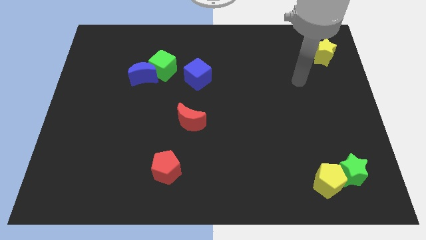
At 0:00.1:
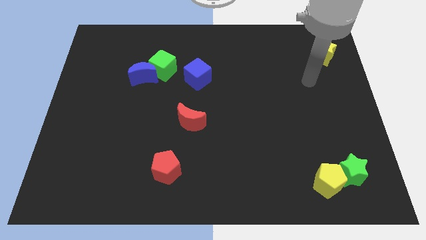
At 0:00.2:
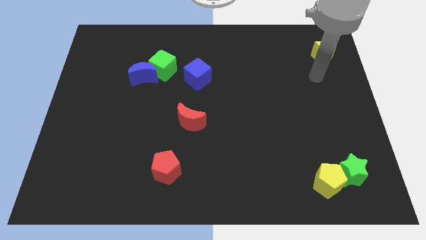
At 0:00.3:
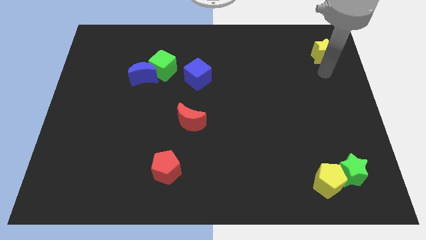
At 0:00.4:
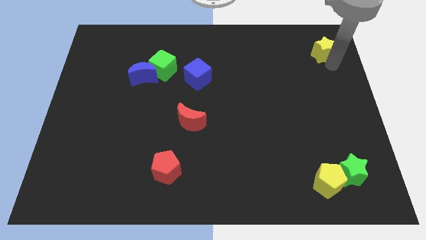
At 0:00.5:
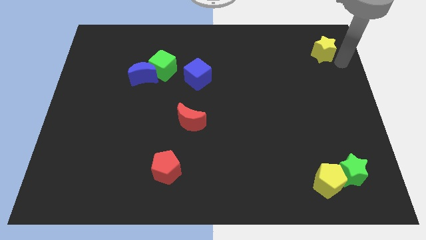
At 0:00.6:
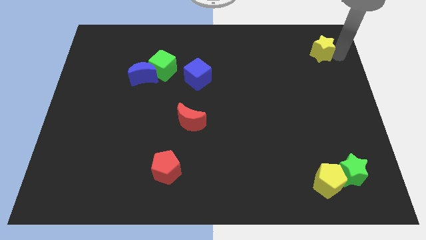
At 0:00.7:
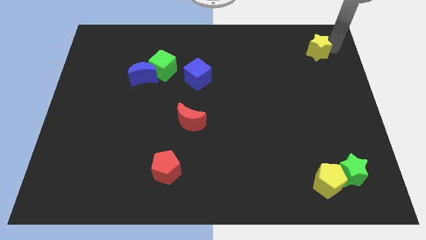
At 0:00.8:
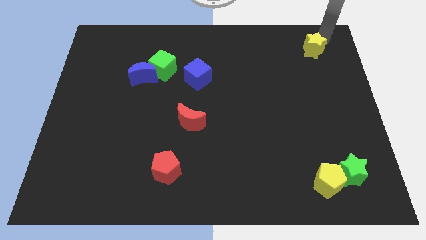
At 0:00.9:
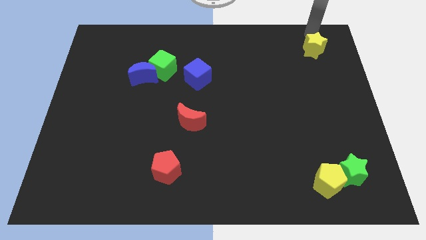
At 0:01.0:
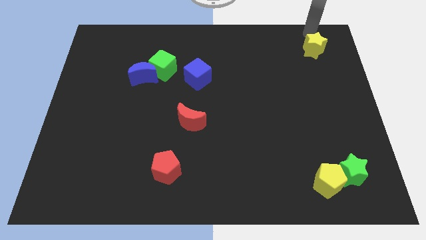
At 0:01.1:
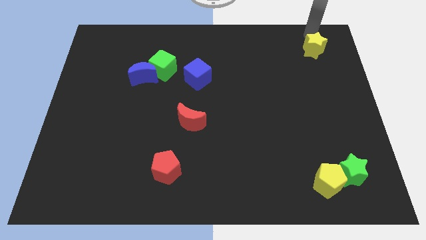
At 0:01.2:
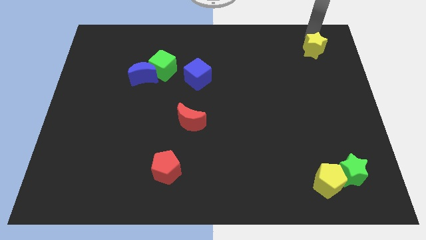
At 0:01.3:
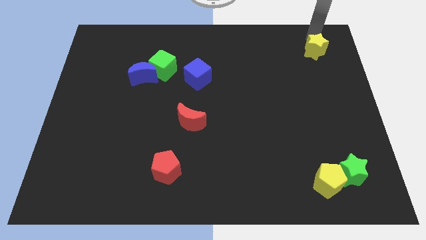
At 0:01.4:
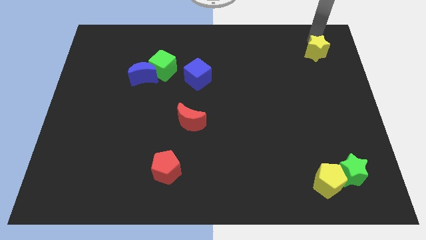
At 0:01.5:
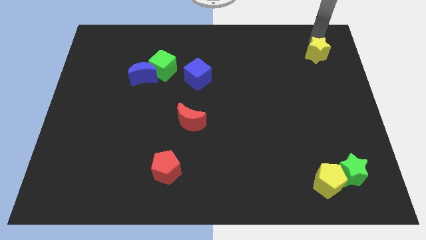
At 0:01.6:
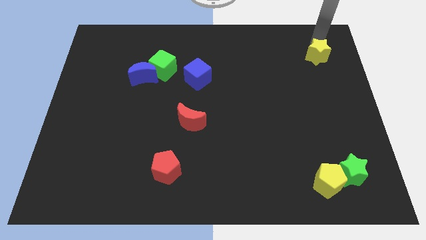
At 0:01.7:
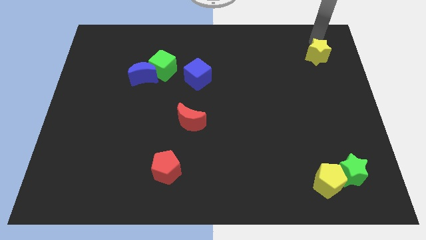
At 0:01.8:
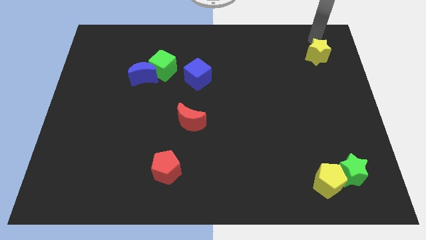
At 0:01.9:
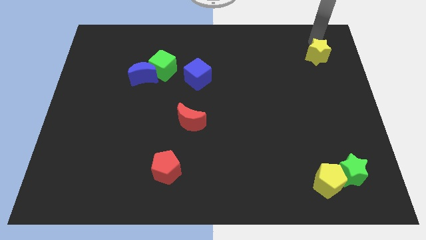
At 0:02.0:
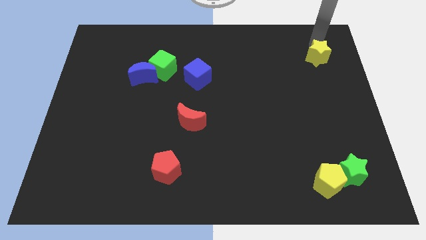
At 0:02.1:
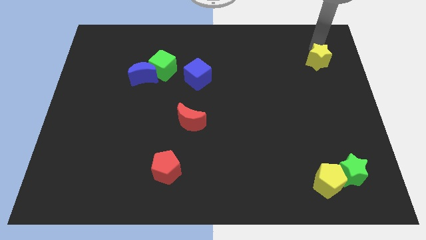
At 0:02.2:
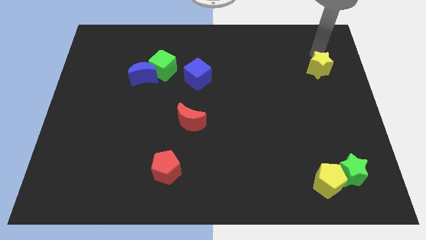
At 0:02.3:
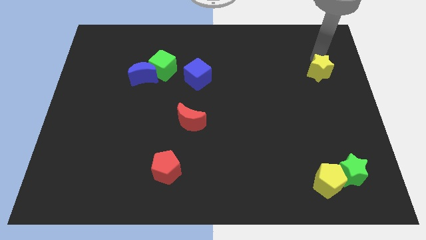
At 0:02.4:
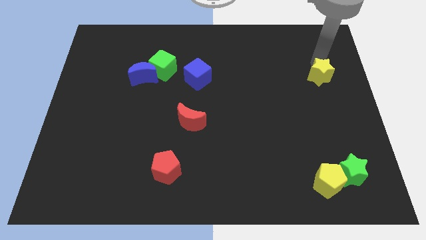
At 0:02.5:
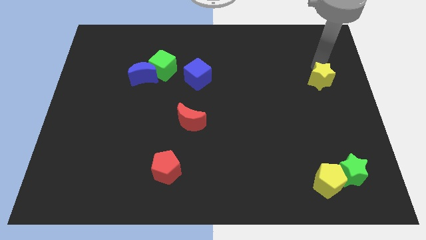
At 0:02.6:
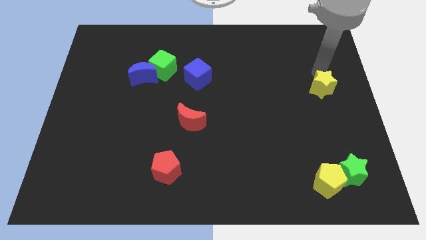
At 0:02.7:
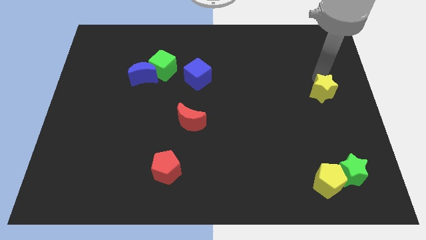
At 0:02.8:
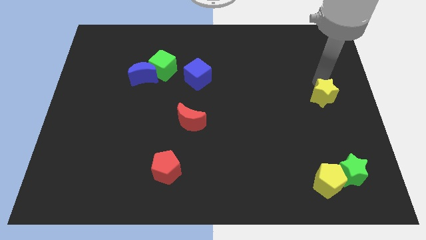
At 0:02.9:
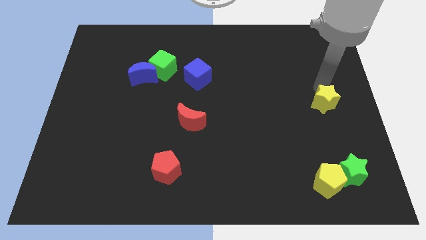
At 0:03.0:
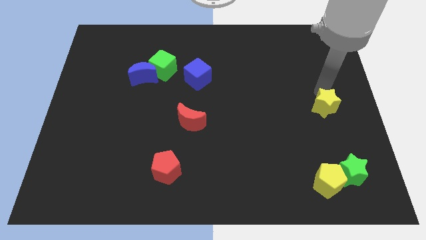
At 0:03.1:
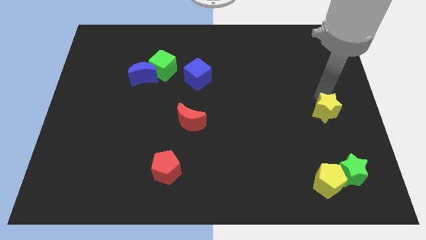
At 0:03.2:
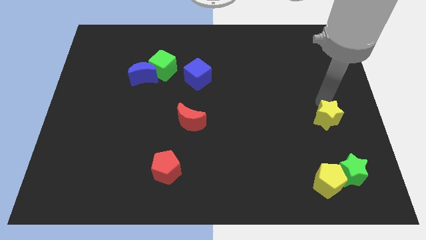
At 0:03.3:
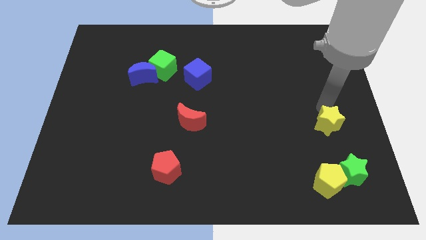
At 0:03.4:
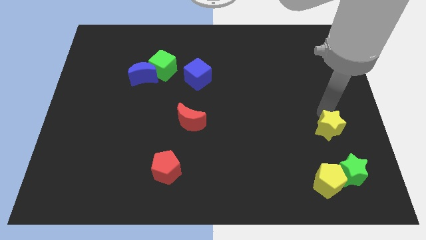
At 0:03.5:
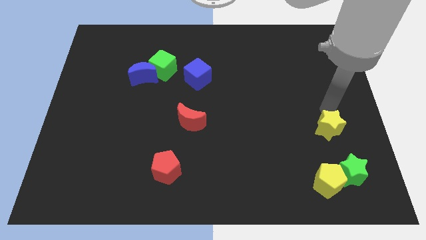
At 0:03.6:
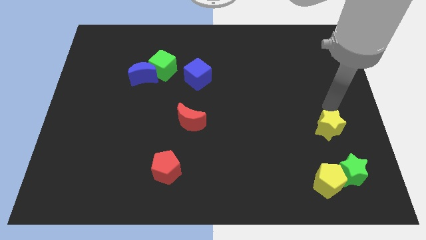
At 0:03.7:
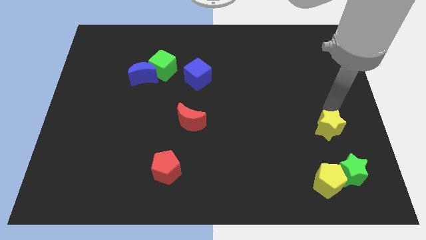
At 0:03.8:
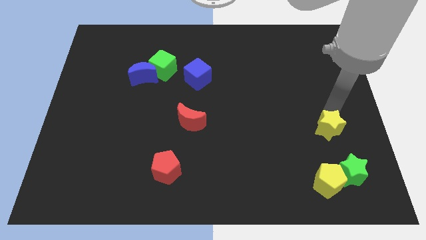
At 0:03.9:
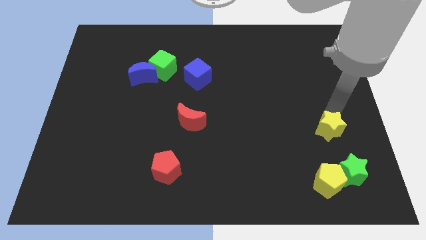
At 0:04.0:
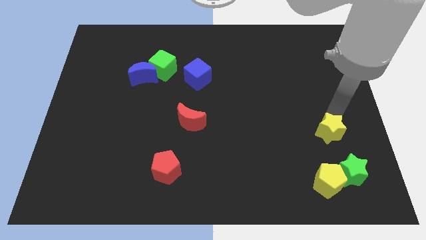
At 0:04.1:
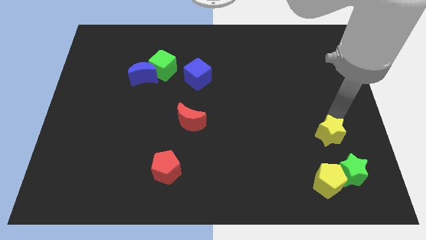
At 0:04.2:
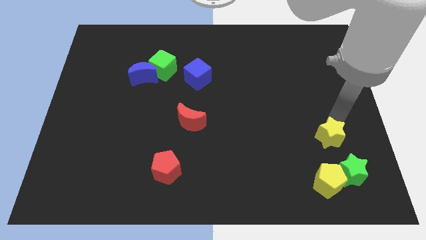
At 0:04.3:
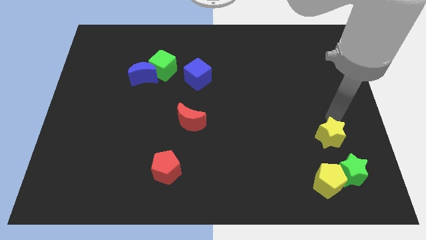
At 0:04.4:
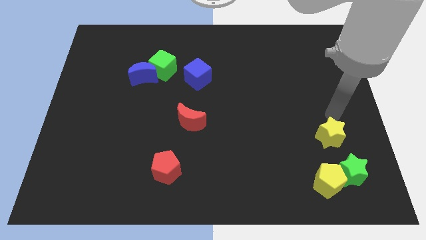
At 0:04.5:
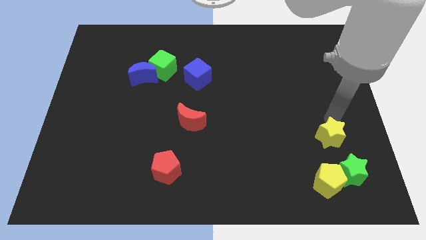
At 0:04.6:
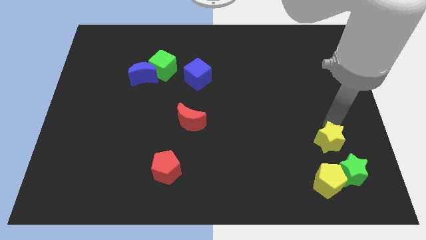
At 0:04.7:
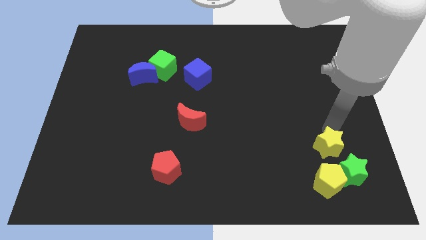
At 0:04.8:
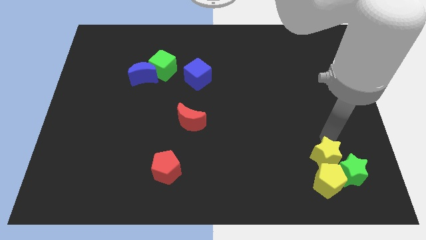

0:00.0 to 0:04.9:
slide the yellow star close to the yellow pentagon

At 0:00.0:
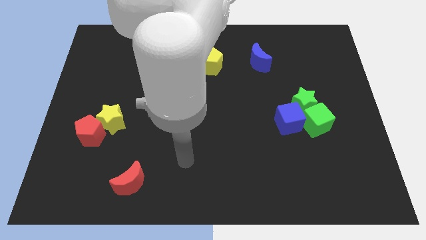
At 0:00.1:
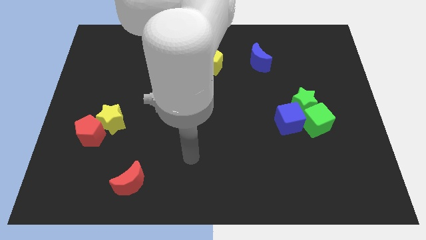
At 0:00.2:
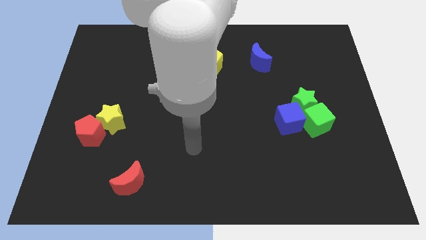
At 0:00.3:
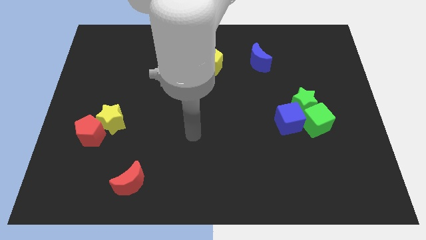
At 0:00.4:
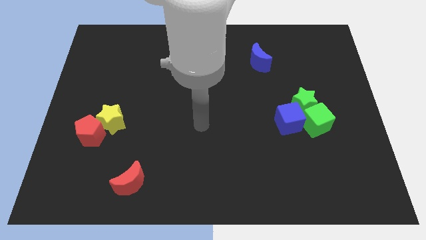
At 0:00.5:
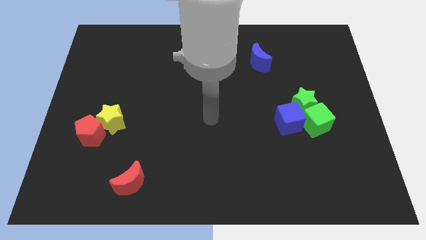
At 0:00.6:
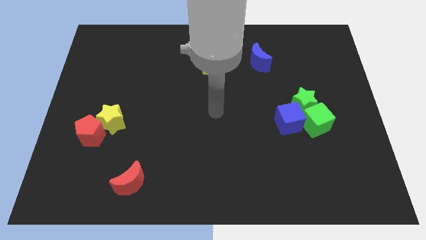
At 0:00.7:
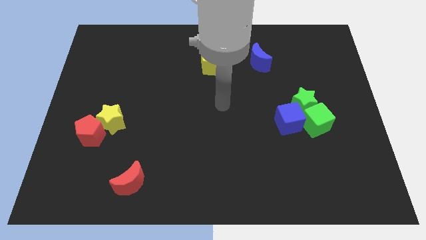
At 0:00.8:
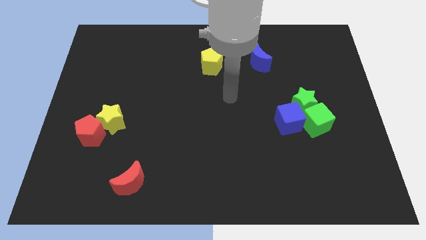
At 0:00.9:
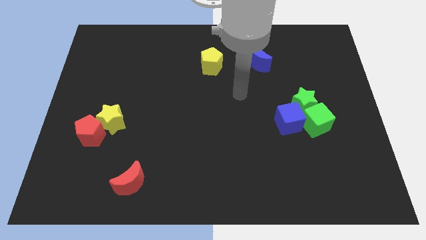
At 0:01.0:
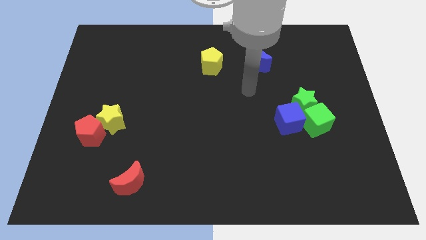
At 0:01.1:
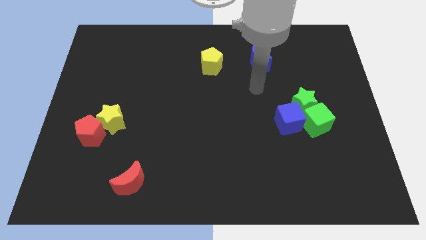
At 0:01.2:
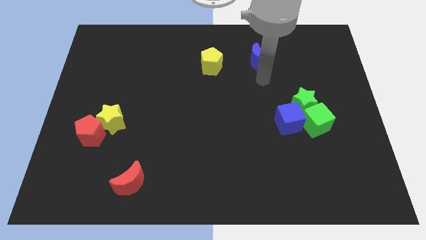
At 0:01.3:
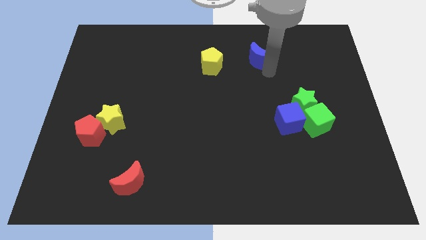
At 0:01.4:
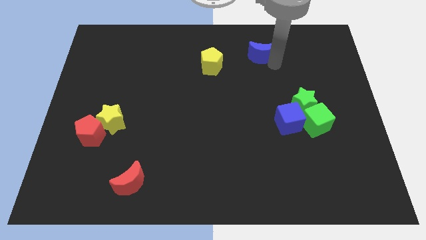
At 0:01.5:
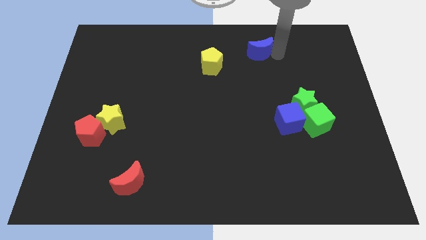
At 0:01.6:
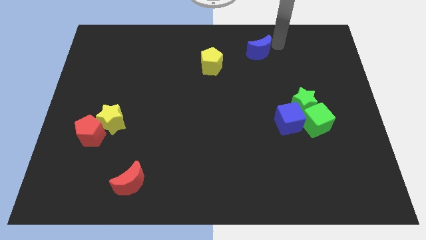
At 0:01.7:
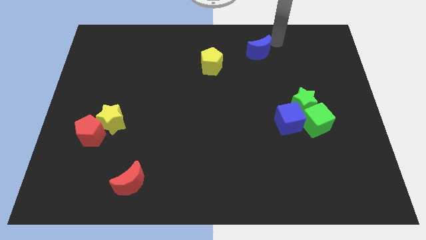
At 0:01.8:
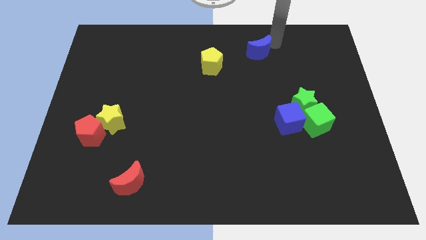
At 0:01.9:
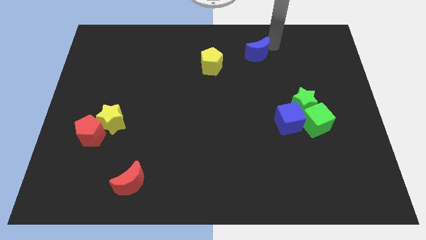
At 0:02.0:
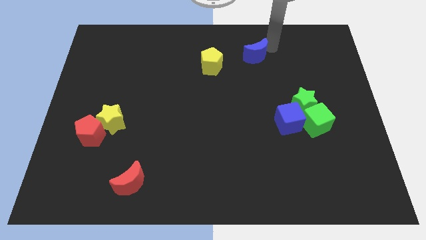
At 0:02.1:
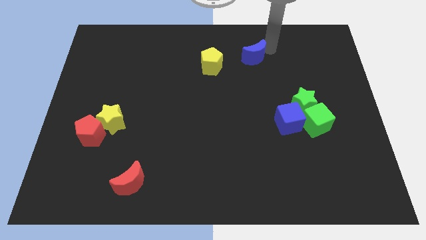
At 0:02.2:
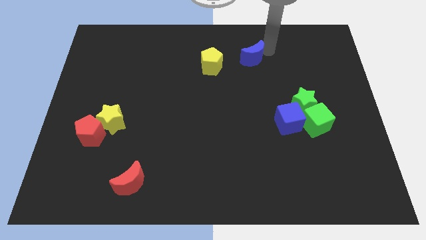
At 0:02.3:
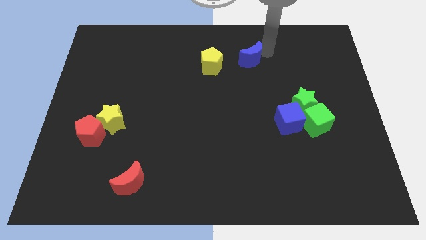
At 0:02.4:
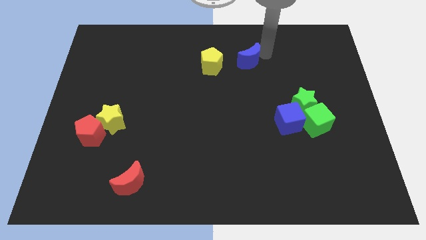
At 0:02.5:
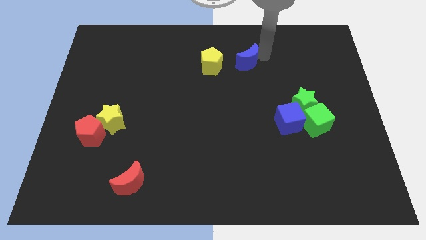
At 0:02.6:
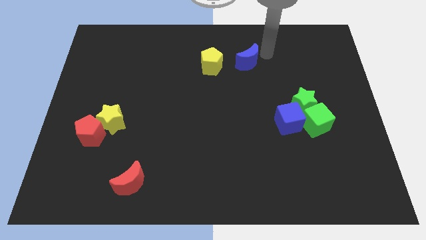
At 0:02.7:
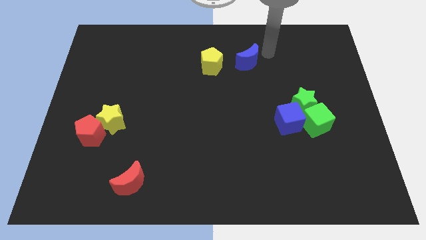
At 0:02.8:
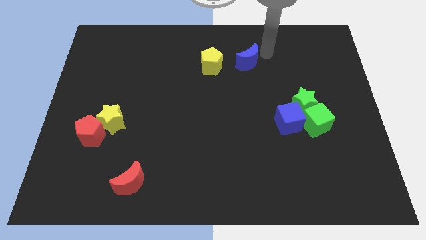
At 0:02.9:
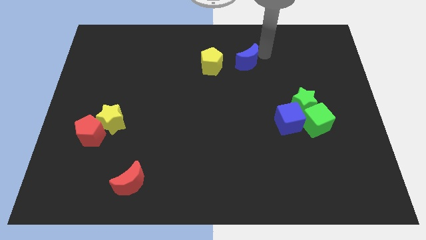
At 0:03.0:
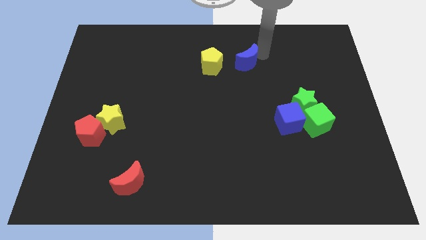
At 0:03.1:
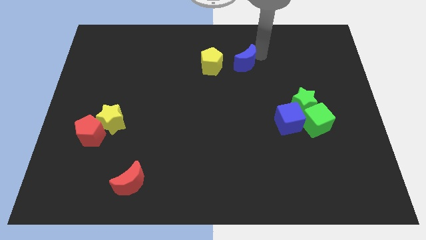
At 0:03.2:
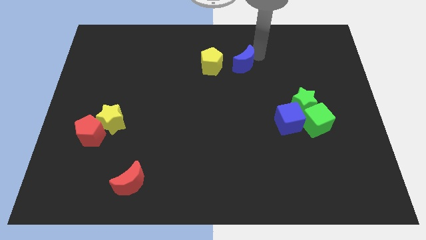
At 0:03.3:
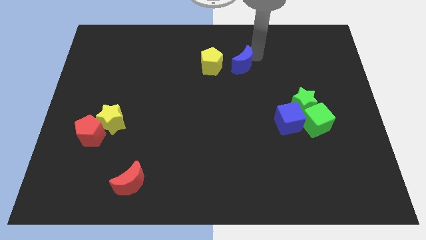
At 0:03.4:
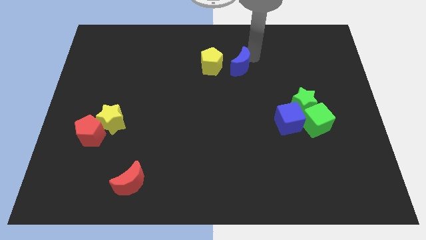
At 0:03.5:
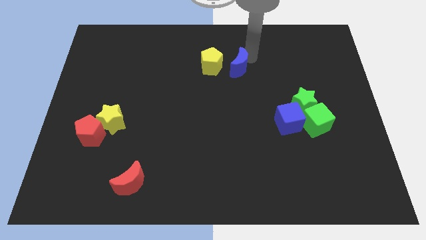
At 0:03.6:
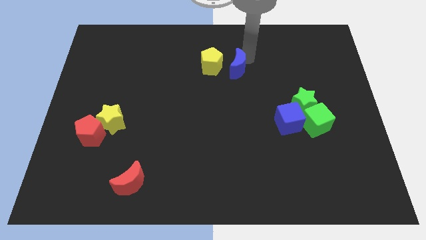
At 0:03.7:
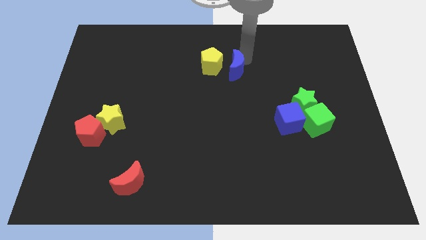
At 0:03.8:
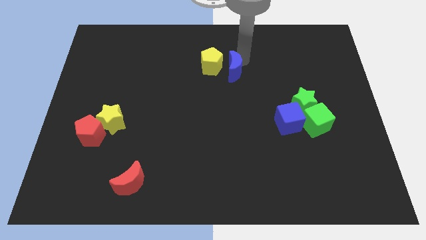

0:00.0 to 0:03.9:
push the blue moon close to the yellow pentagon
